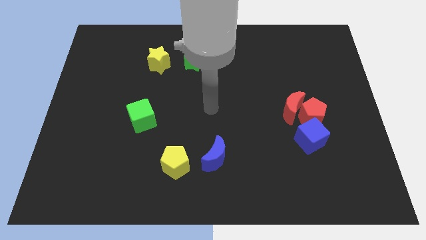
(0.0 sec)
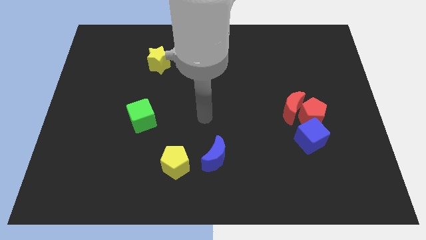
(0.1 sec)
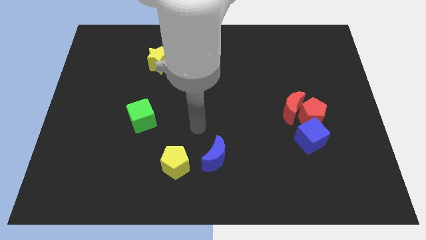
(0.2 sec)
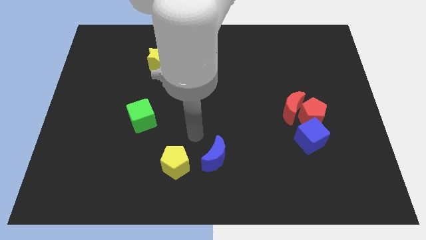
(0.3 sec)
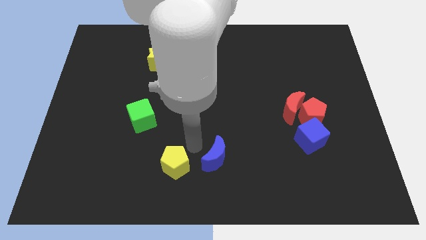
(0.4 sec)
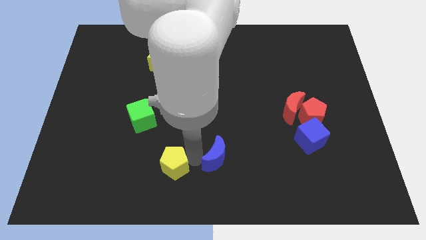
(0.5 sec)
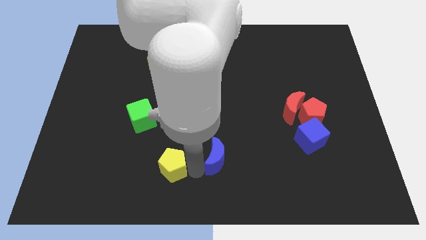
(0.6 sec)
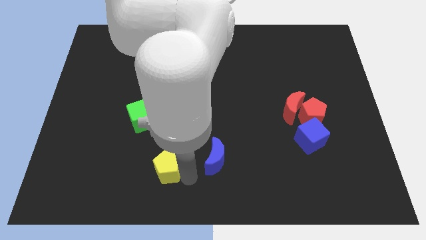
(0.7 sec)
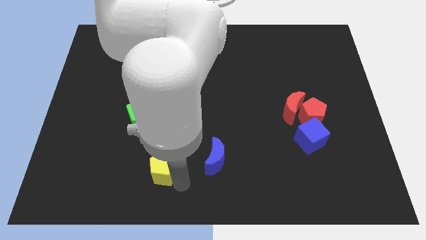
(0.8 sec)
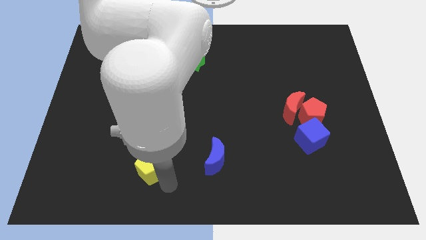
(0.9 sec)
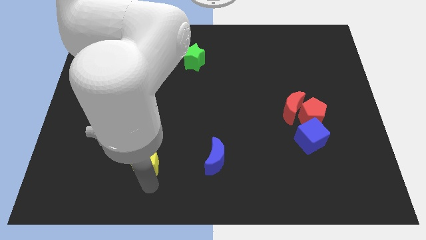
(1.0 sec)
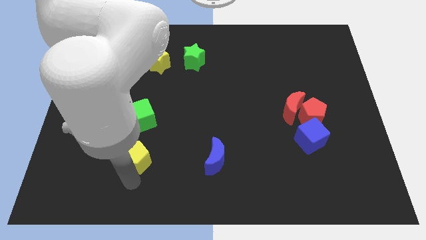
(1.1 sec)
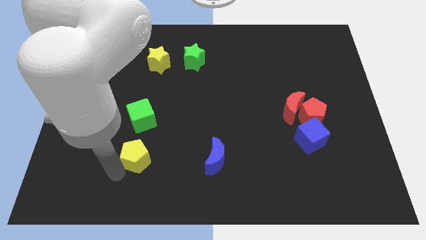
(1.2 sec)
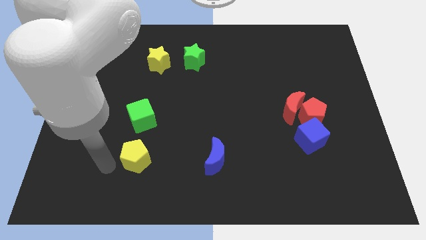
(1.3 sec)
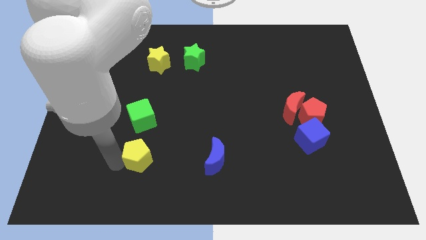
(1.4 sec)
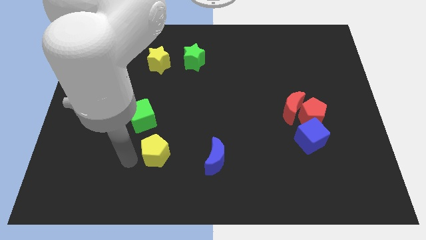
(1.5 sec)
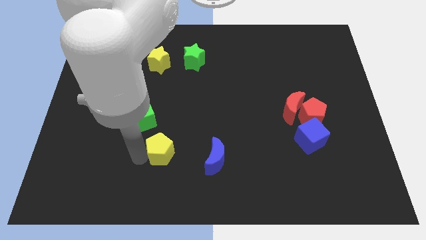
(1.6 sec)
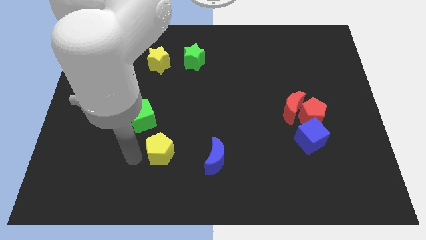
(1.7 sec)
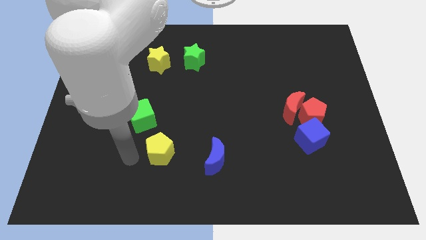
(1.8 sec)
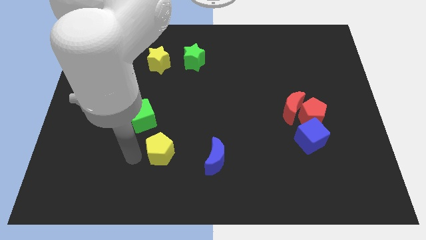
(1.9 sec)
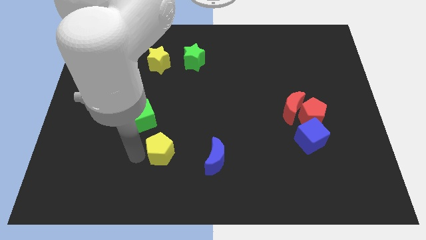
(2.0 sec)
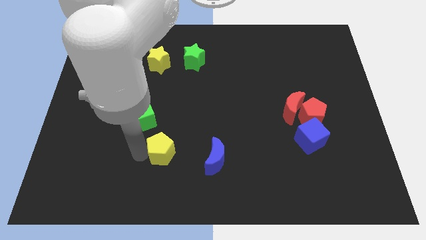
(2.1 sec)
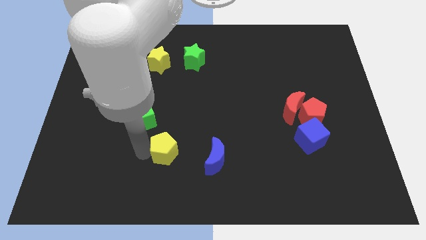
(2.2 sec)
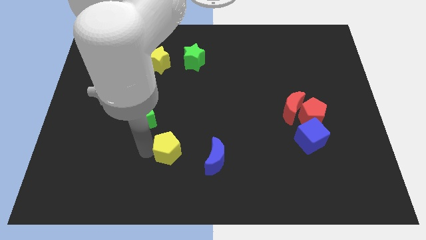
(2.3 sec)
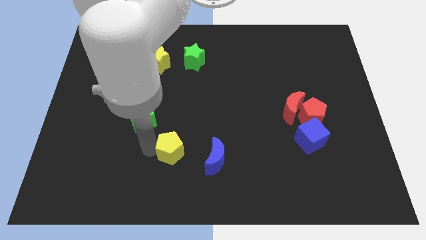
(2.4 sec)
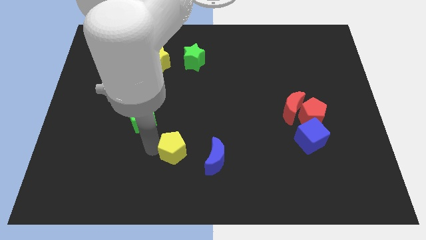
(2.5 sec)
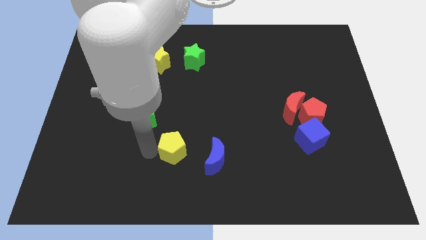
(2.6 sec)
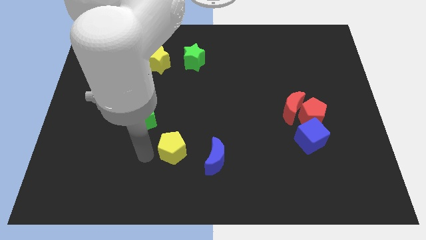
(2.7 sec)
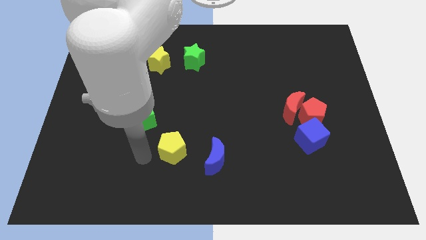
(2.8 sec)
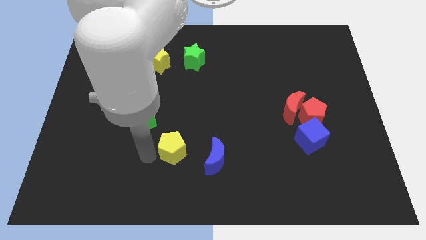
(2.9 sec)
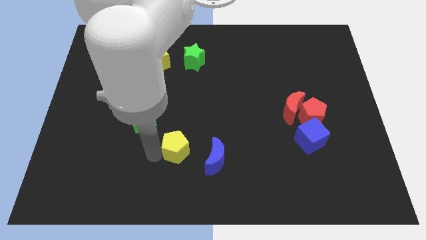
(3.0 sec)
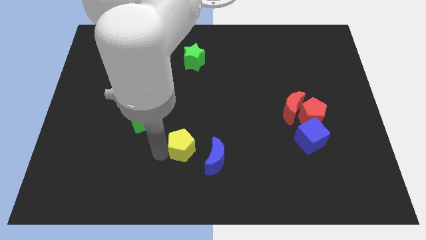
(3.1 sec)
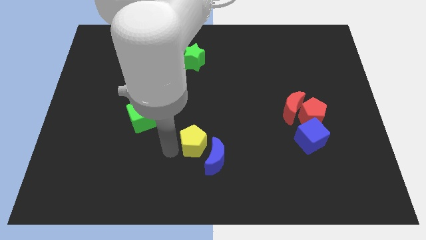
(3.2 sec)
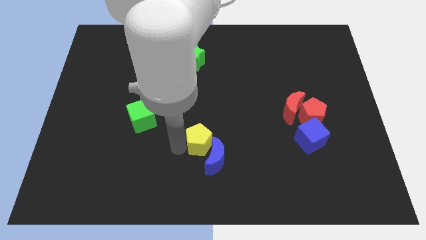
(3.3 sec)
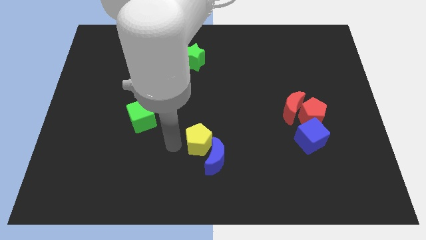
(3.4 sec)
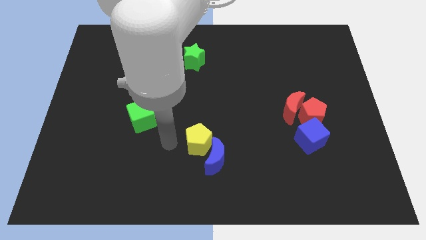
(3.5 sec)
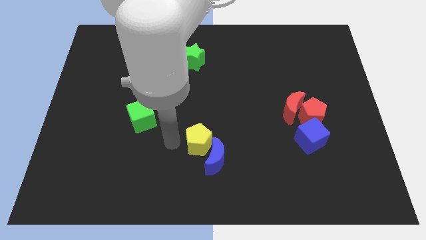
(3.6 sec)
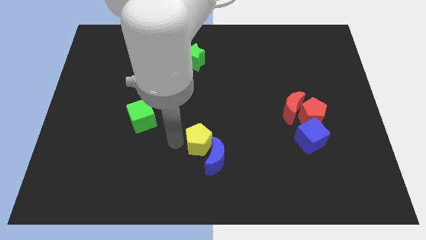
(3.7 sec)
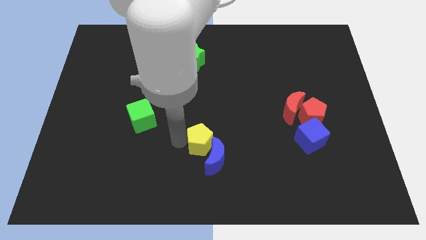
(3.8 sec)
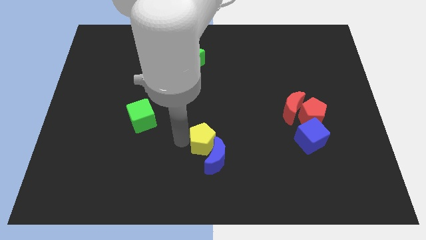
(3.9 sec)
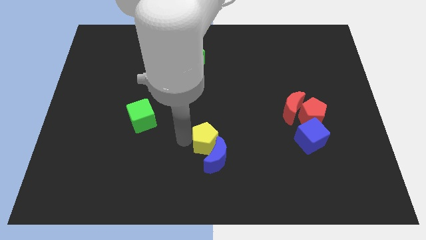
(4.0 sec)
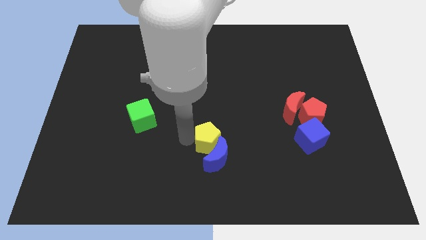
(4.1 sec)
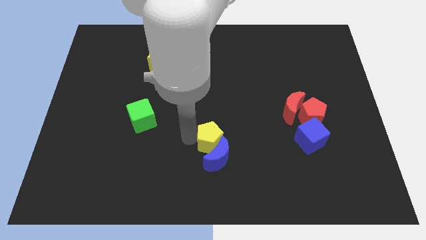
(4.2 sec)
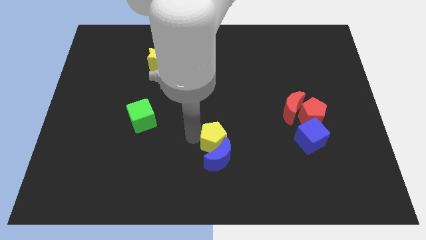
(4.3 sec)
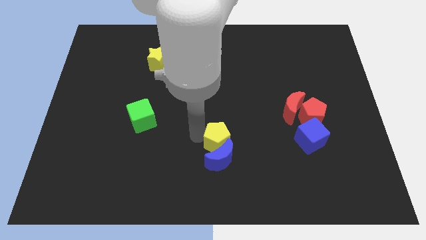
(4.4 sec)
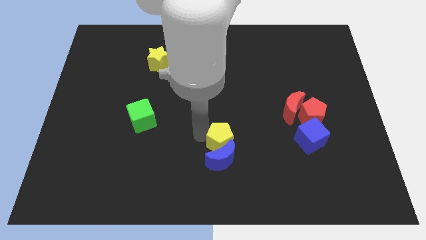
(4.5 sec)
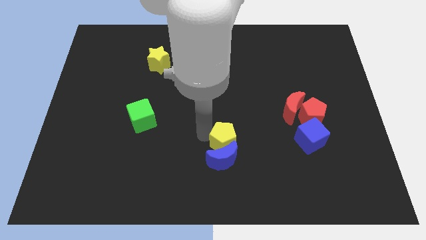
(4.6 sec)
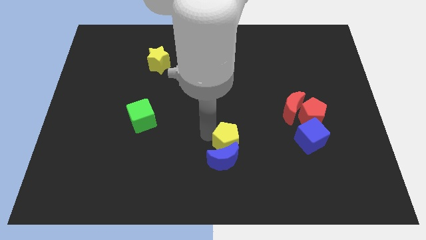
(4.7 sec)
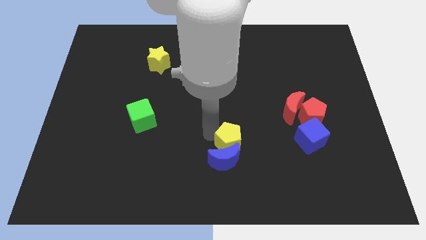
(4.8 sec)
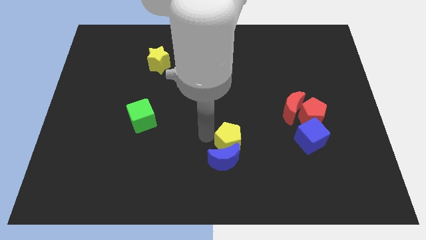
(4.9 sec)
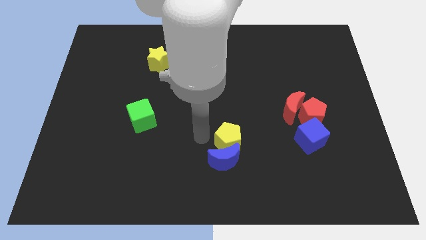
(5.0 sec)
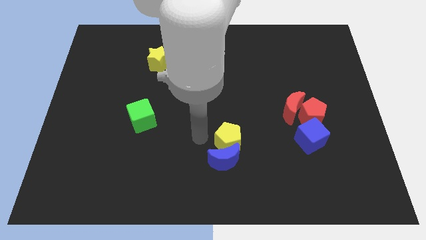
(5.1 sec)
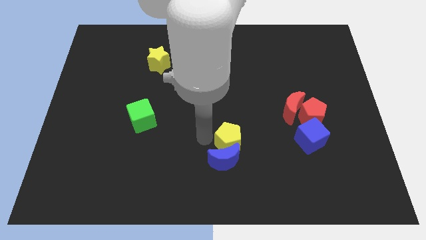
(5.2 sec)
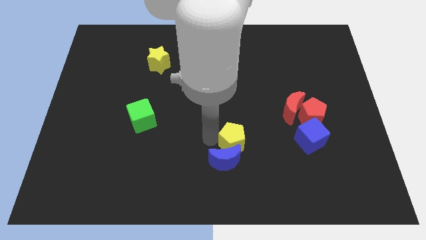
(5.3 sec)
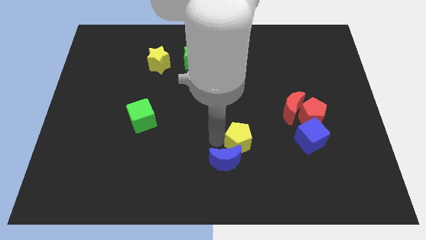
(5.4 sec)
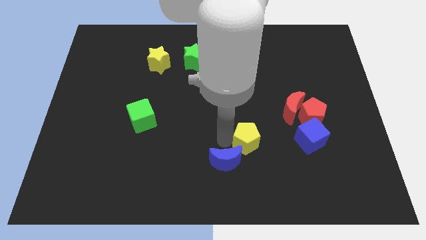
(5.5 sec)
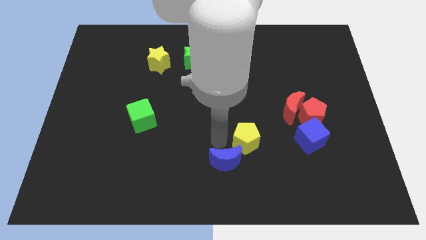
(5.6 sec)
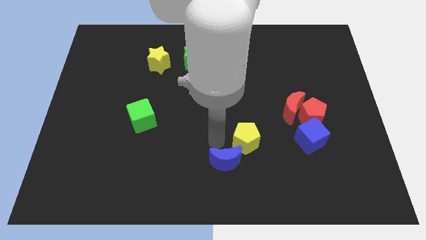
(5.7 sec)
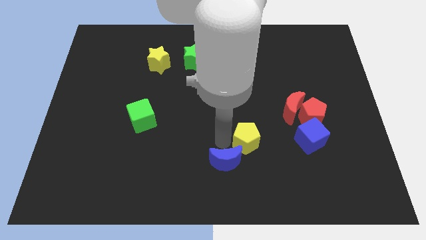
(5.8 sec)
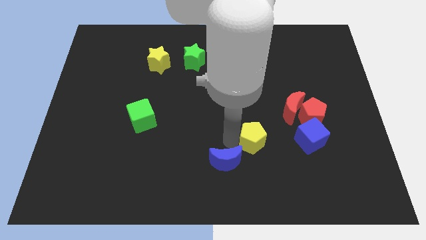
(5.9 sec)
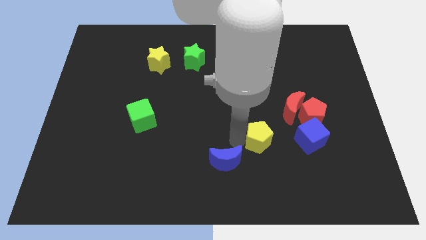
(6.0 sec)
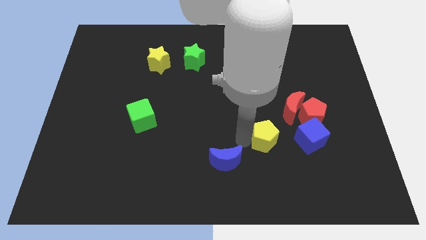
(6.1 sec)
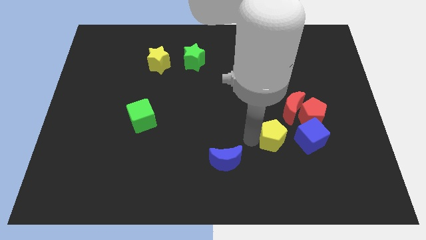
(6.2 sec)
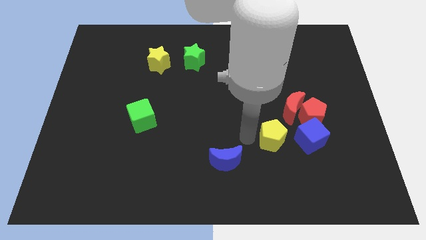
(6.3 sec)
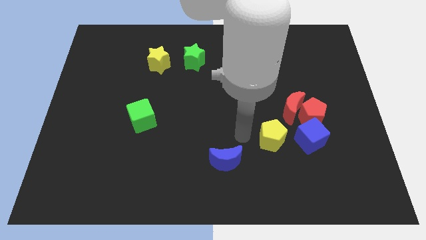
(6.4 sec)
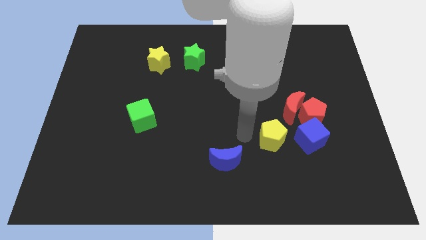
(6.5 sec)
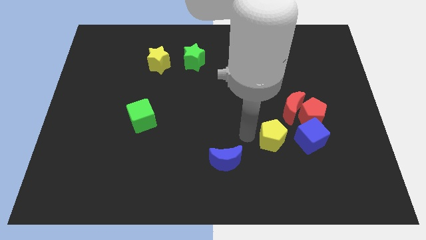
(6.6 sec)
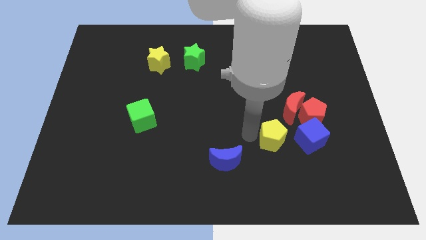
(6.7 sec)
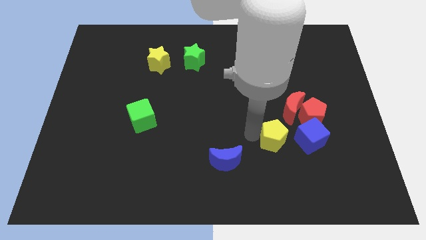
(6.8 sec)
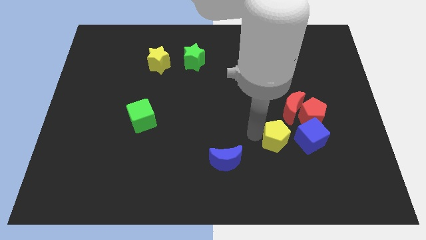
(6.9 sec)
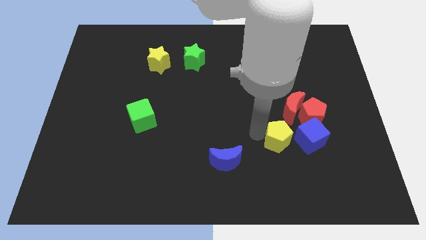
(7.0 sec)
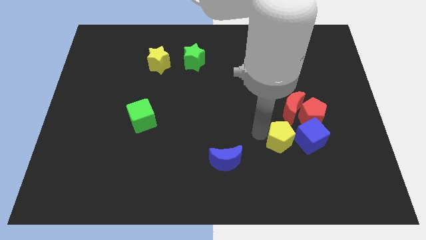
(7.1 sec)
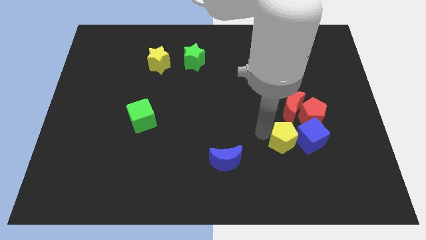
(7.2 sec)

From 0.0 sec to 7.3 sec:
move the yellow pentagon to the blue cube
